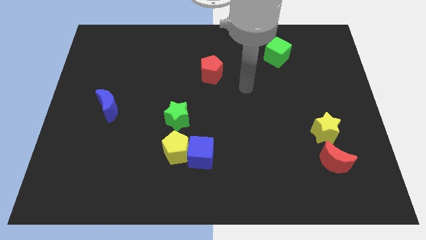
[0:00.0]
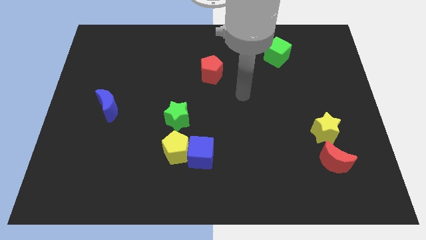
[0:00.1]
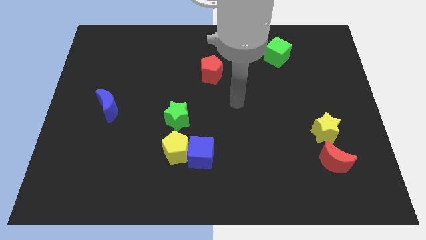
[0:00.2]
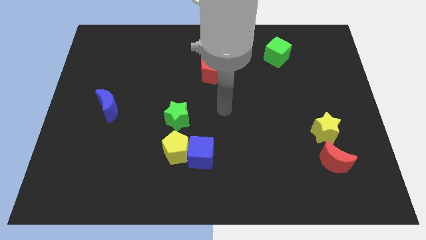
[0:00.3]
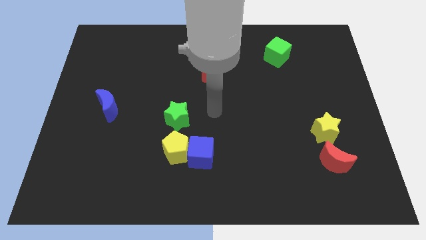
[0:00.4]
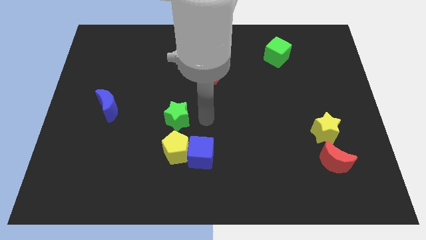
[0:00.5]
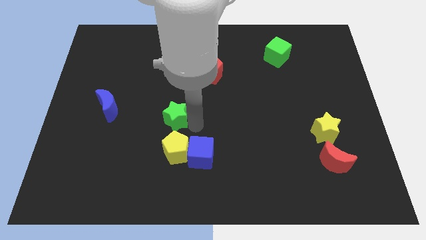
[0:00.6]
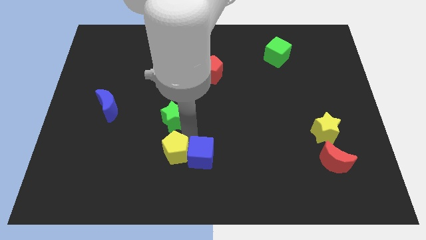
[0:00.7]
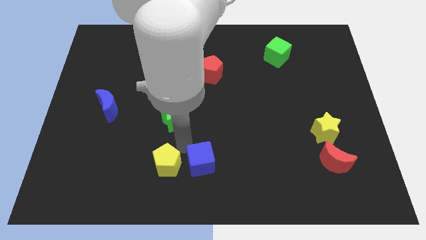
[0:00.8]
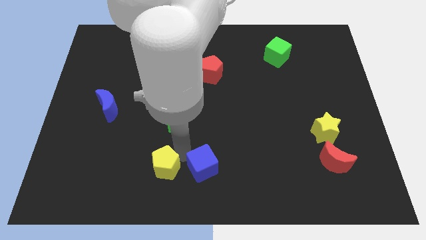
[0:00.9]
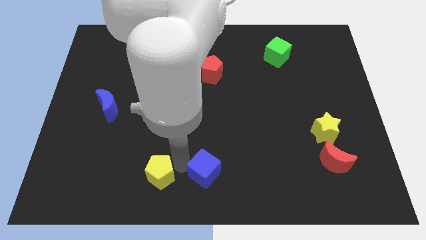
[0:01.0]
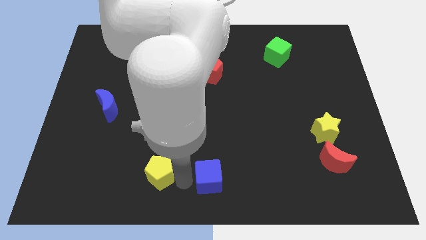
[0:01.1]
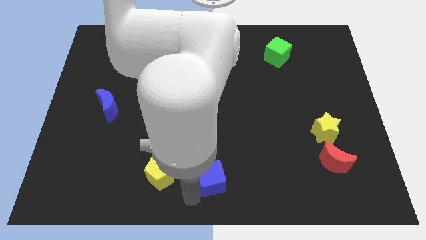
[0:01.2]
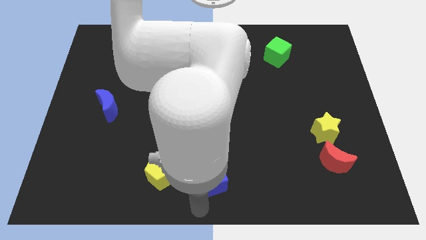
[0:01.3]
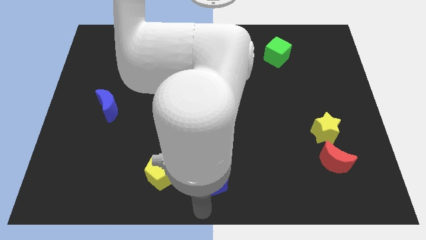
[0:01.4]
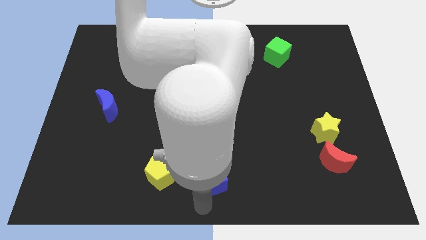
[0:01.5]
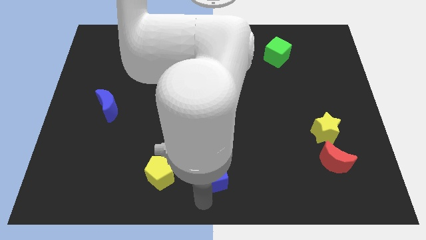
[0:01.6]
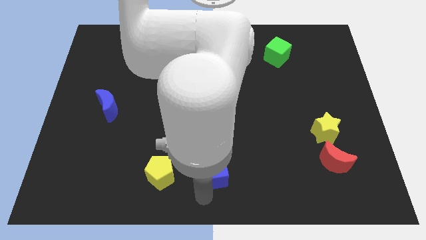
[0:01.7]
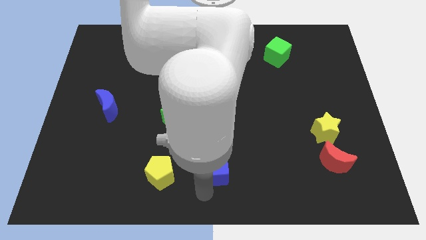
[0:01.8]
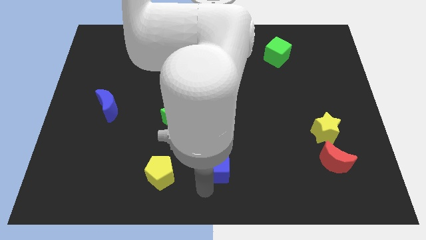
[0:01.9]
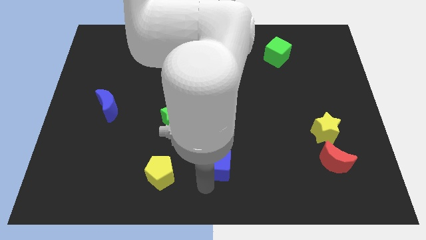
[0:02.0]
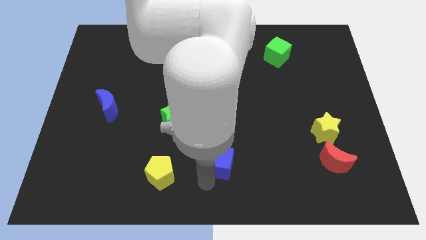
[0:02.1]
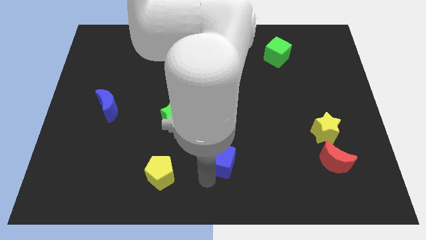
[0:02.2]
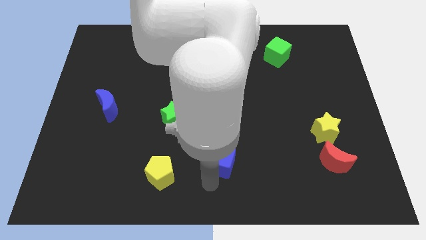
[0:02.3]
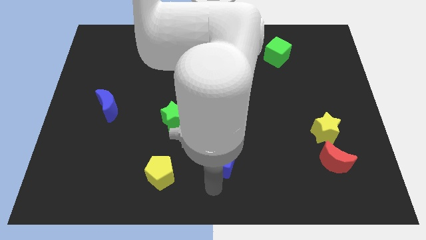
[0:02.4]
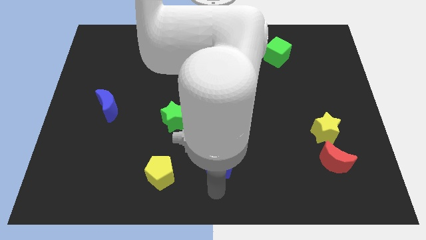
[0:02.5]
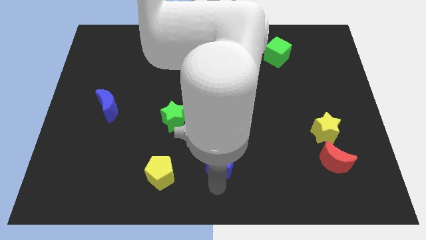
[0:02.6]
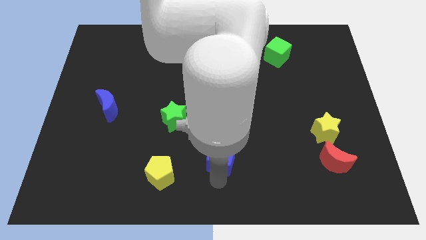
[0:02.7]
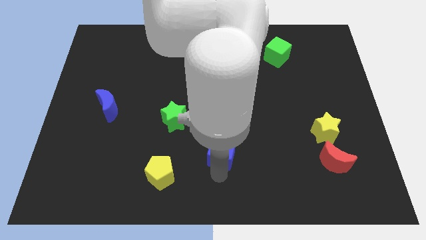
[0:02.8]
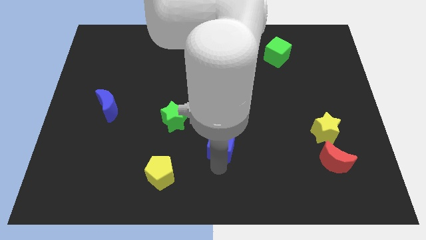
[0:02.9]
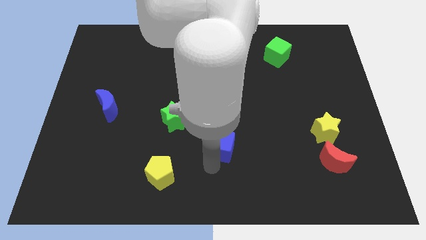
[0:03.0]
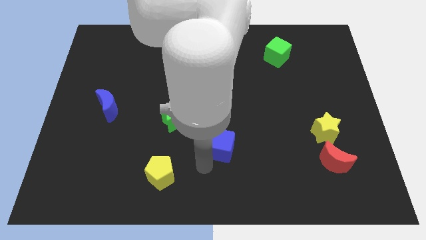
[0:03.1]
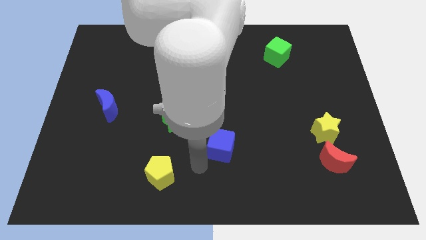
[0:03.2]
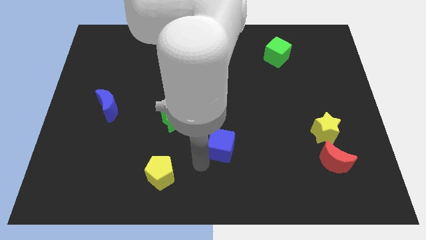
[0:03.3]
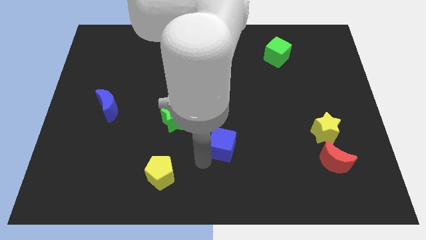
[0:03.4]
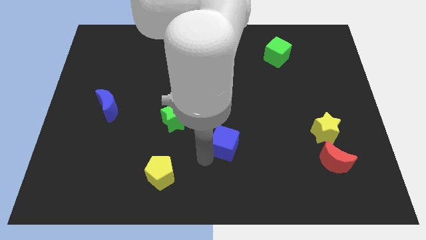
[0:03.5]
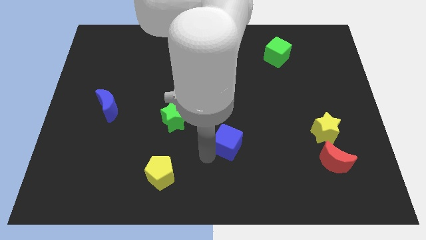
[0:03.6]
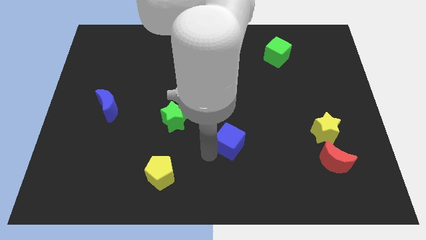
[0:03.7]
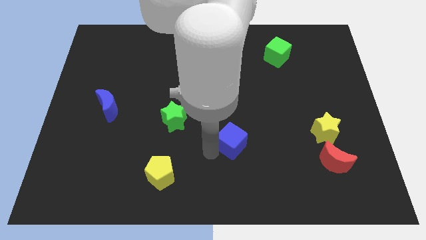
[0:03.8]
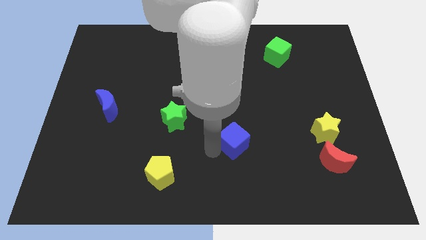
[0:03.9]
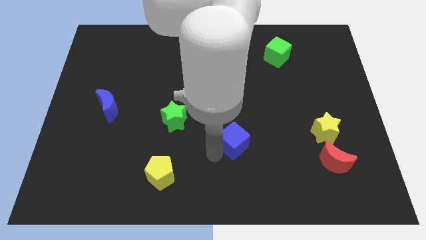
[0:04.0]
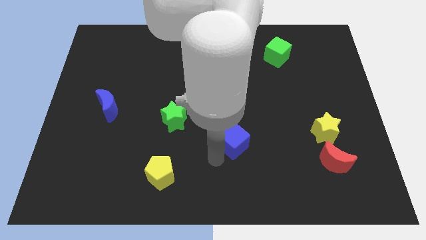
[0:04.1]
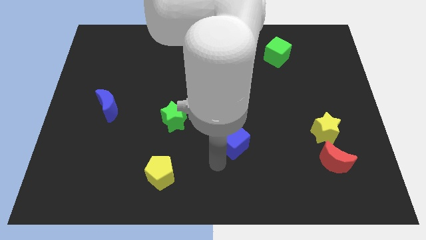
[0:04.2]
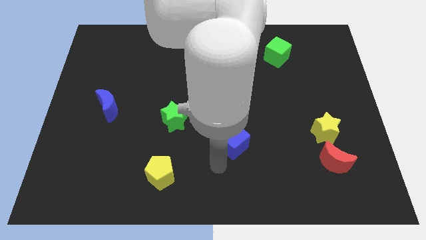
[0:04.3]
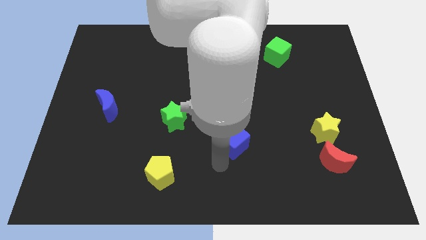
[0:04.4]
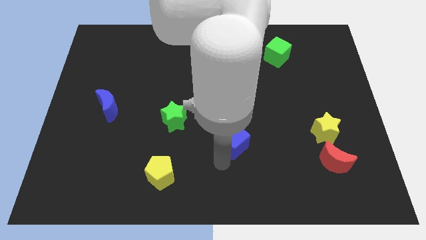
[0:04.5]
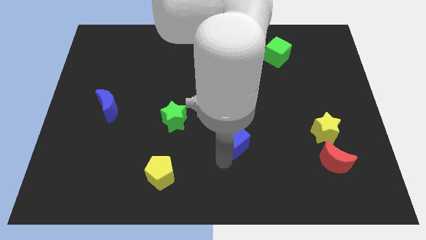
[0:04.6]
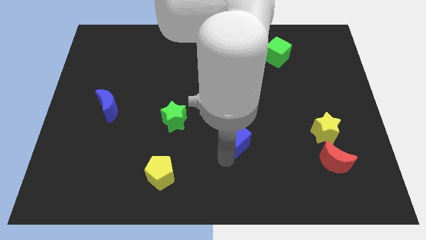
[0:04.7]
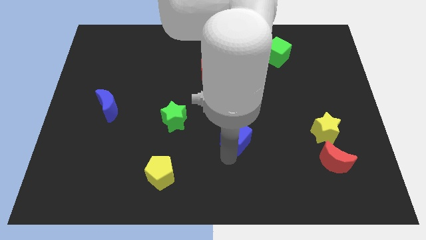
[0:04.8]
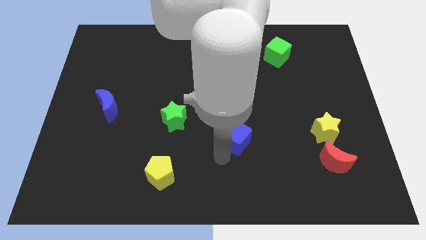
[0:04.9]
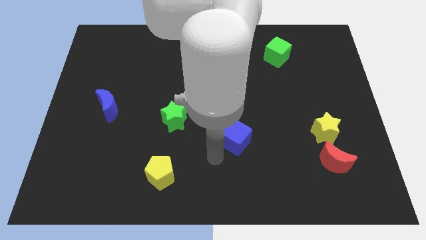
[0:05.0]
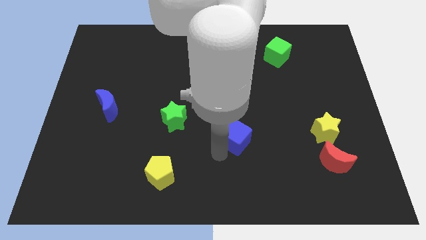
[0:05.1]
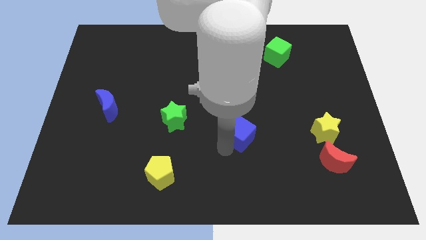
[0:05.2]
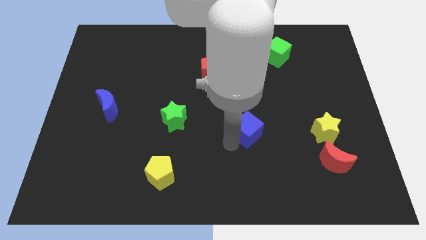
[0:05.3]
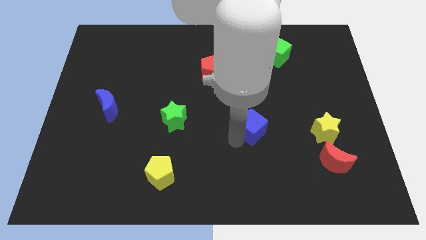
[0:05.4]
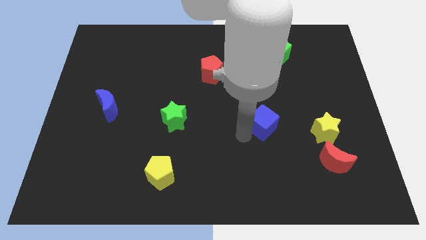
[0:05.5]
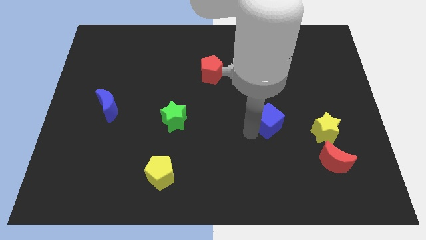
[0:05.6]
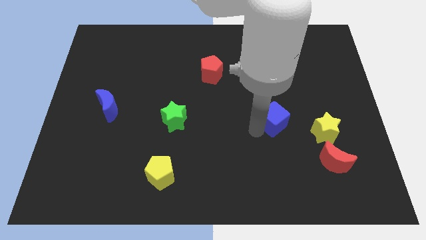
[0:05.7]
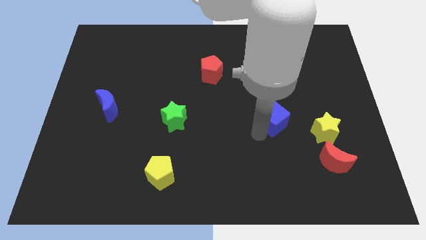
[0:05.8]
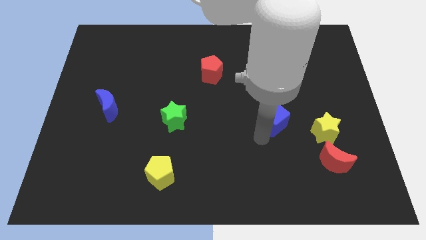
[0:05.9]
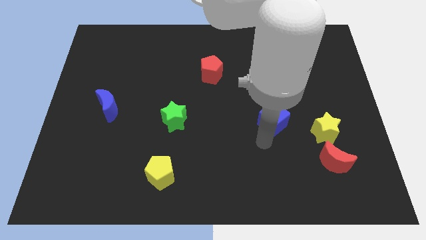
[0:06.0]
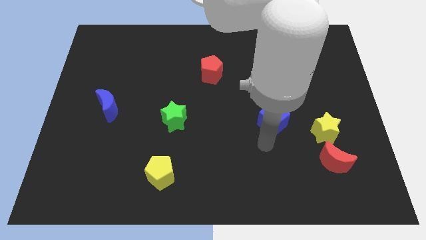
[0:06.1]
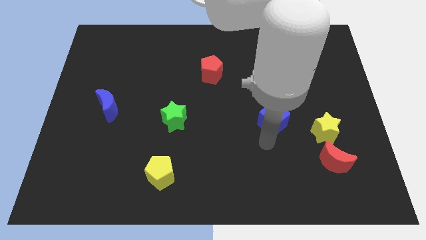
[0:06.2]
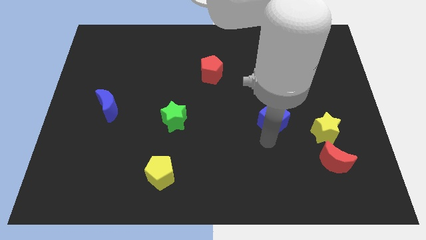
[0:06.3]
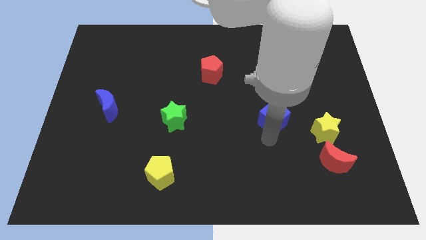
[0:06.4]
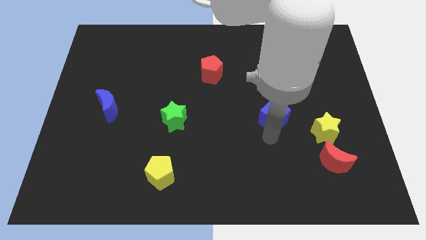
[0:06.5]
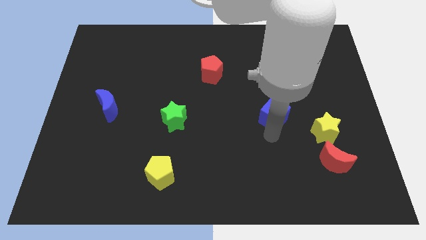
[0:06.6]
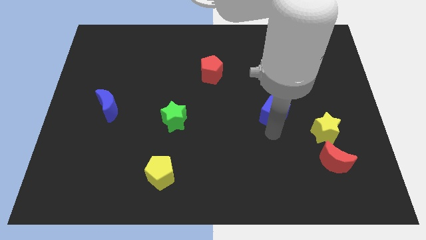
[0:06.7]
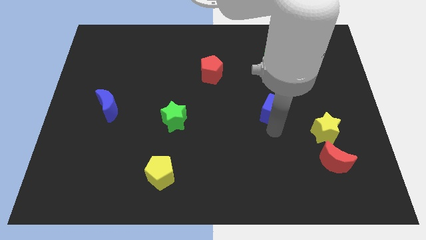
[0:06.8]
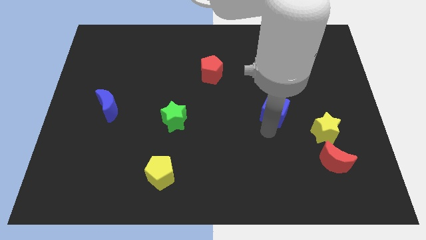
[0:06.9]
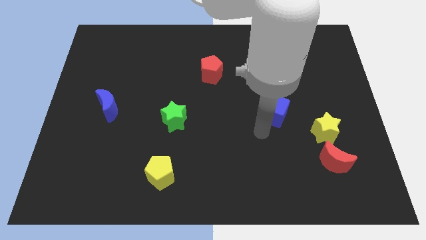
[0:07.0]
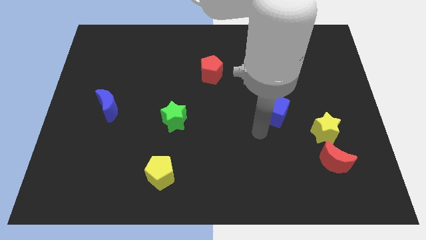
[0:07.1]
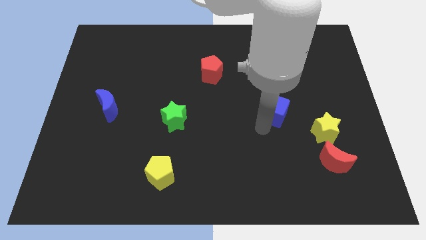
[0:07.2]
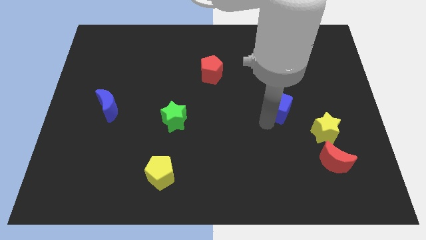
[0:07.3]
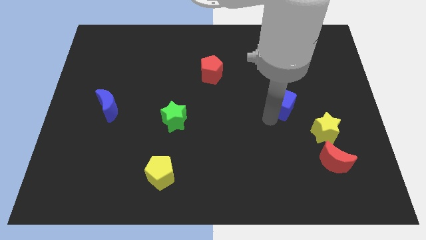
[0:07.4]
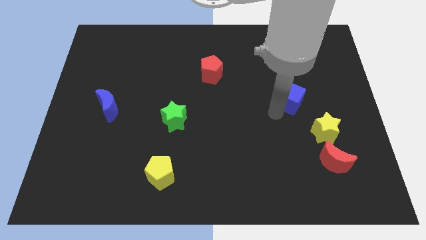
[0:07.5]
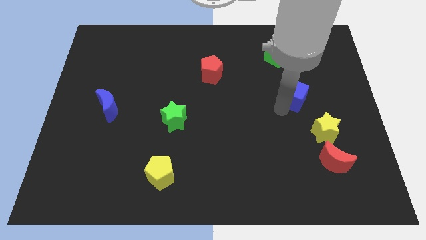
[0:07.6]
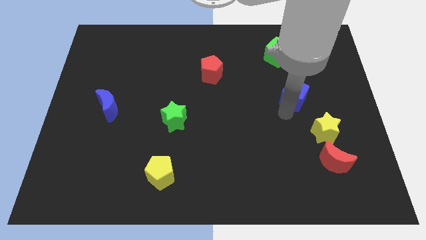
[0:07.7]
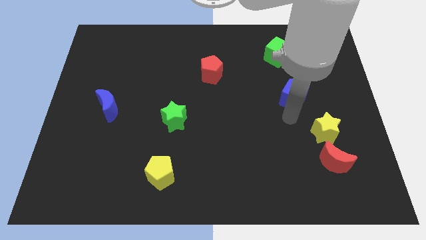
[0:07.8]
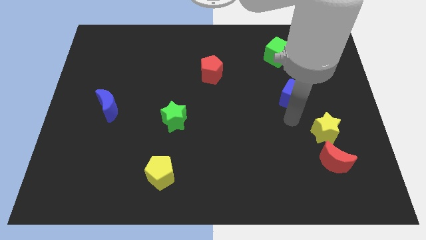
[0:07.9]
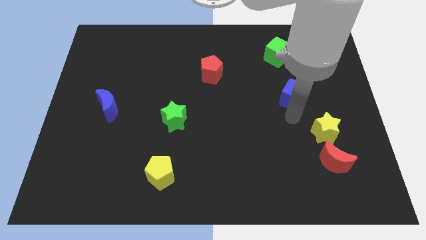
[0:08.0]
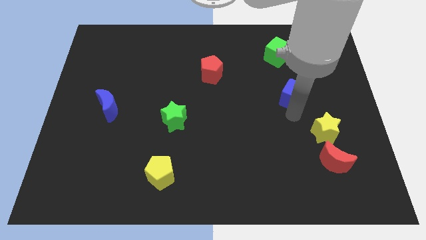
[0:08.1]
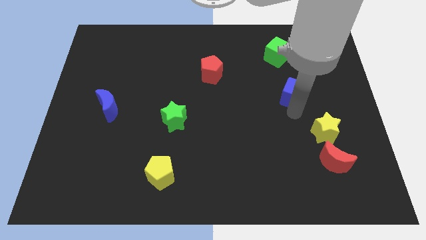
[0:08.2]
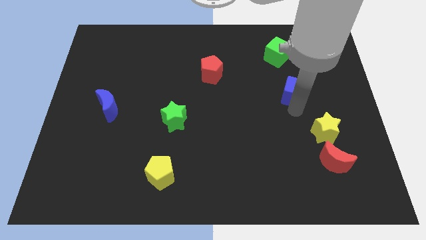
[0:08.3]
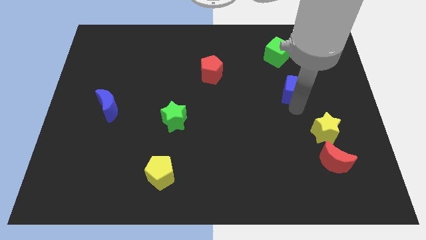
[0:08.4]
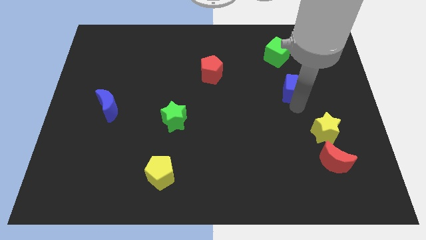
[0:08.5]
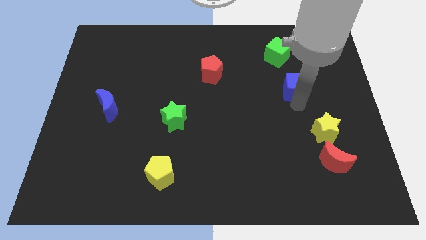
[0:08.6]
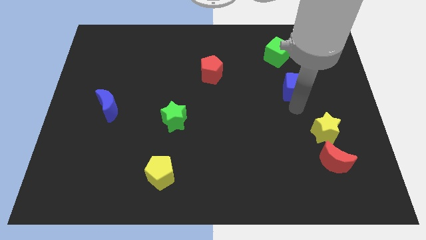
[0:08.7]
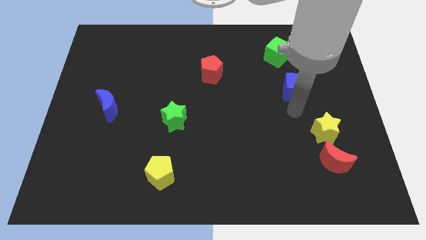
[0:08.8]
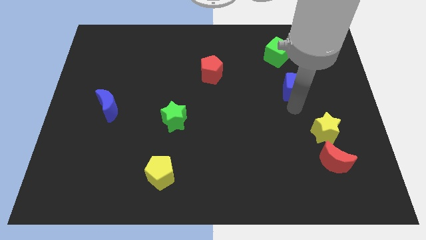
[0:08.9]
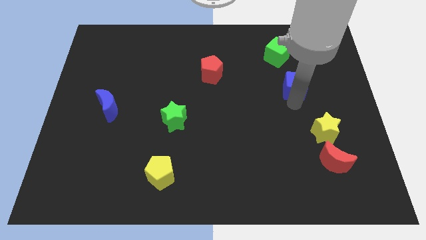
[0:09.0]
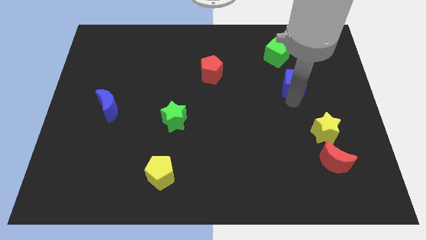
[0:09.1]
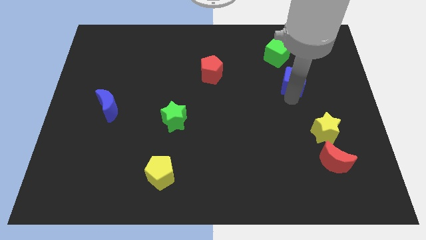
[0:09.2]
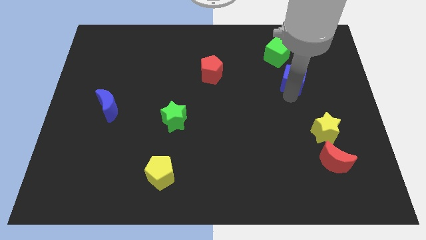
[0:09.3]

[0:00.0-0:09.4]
put the blue cube diagonally down and to the right of the green cube
